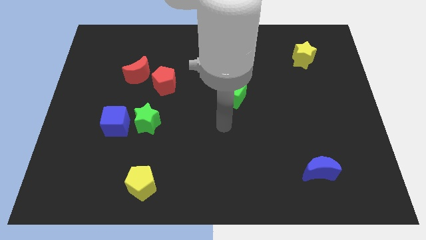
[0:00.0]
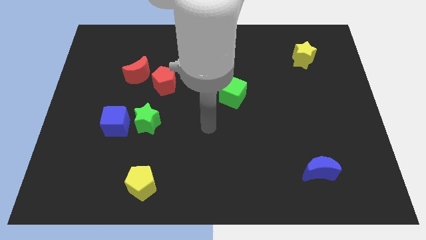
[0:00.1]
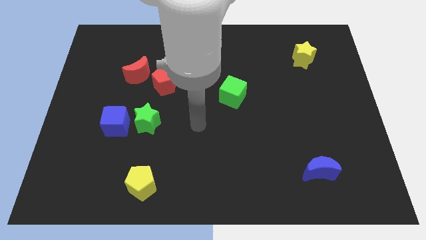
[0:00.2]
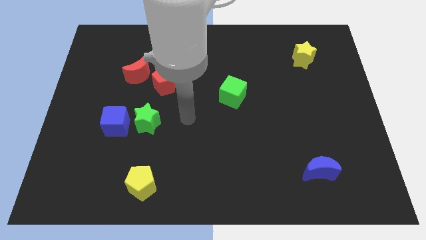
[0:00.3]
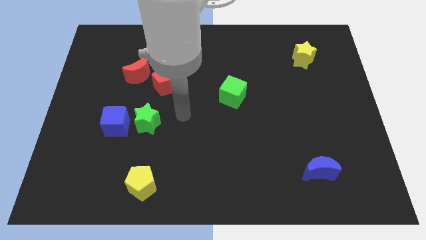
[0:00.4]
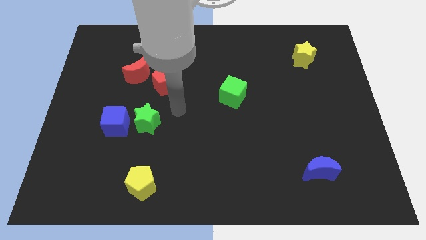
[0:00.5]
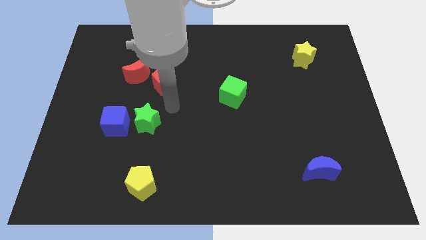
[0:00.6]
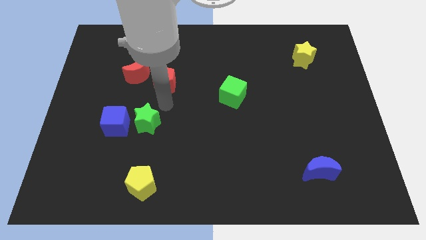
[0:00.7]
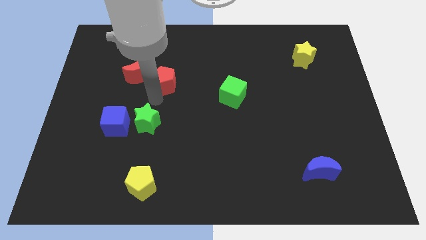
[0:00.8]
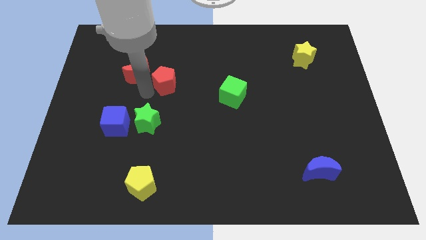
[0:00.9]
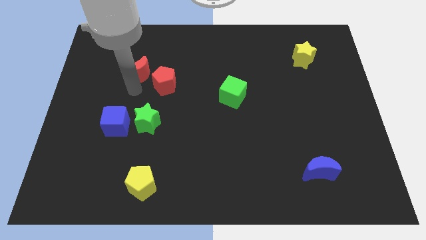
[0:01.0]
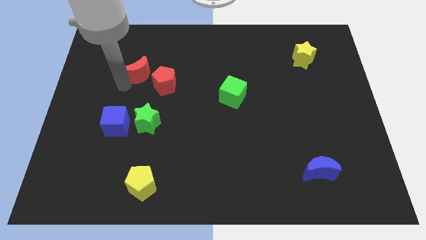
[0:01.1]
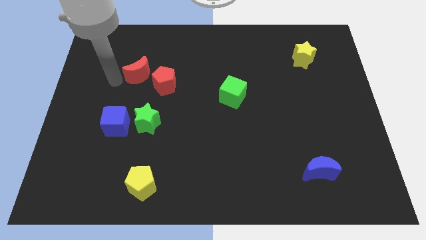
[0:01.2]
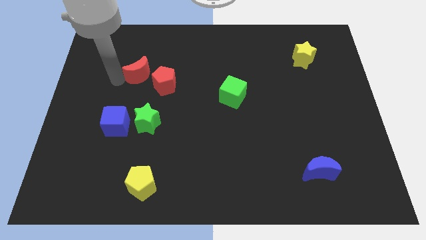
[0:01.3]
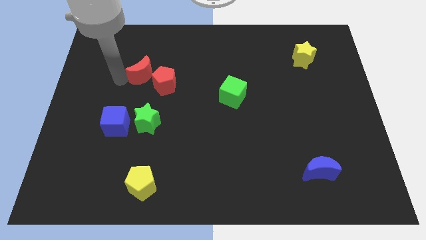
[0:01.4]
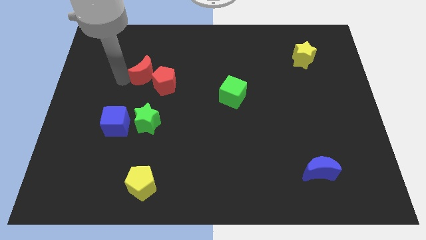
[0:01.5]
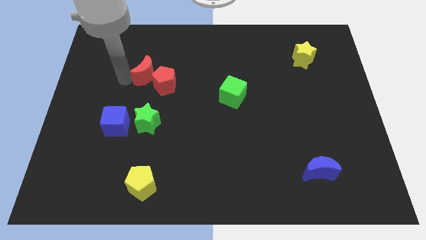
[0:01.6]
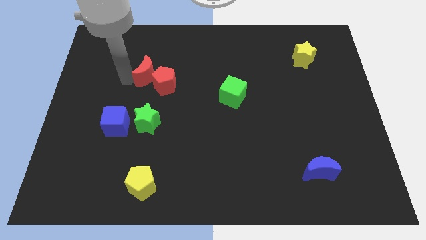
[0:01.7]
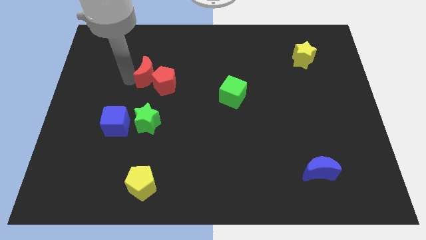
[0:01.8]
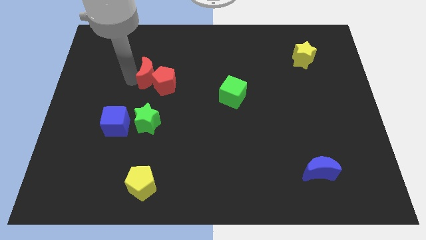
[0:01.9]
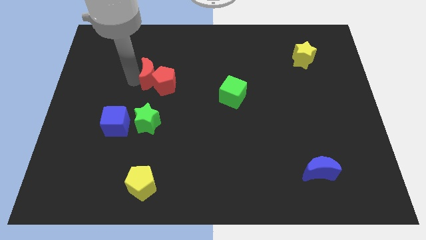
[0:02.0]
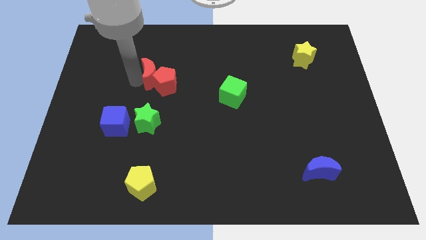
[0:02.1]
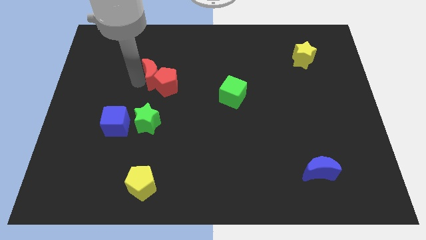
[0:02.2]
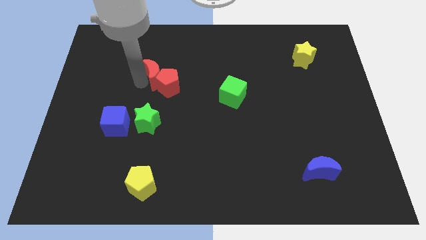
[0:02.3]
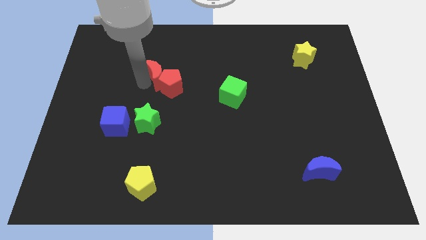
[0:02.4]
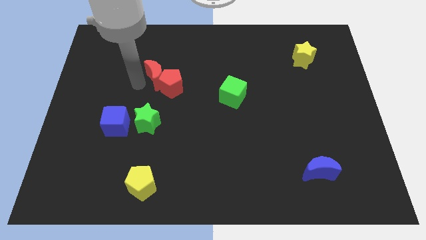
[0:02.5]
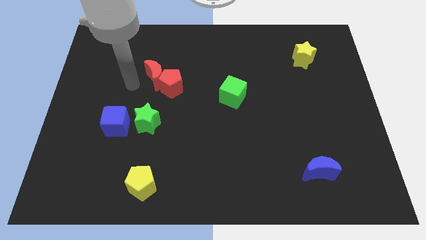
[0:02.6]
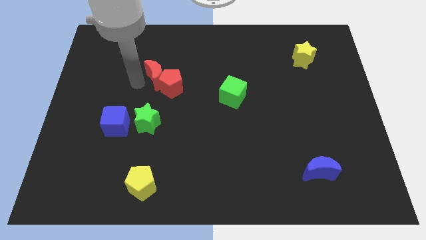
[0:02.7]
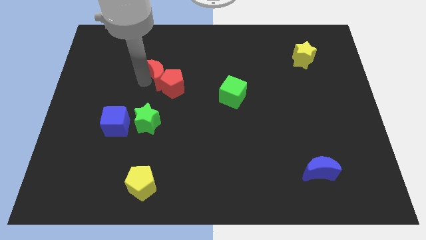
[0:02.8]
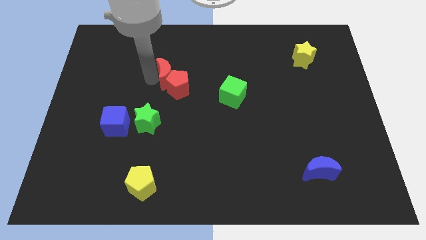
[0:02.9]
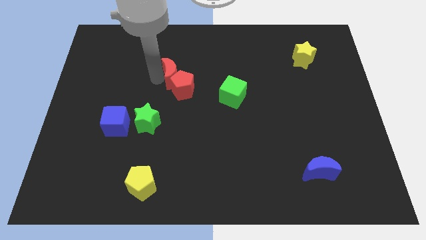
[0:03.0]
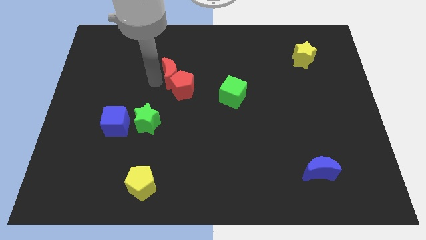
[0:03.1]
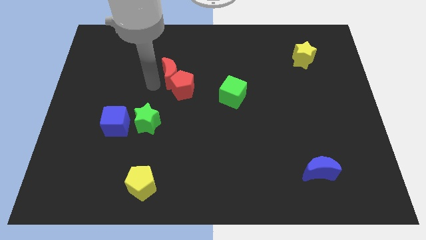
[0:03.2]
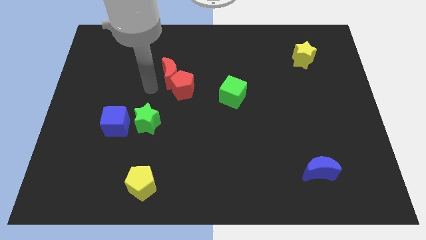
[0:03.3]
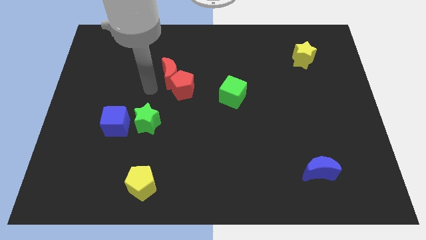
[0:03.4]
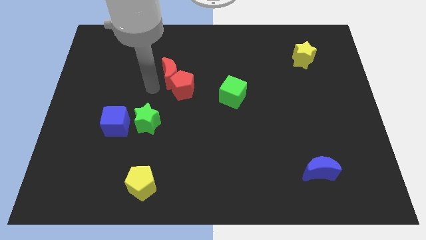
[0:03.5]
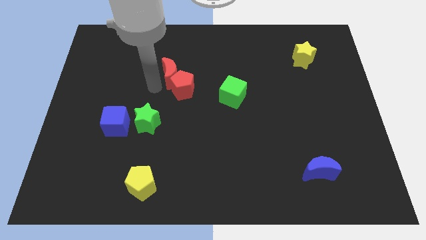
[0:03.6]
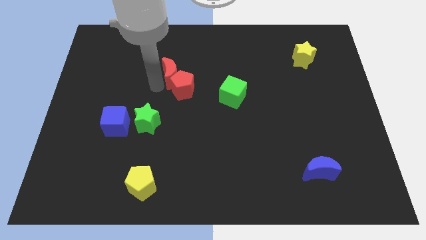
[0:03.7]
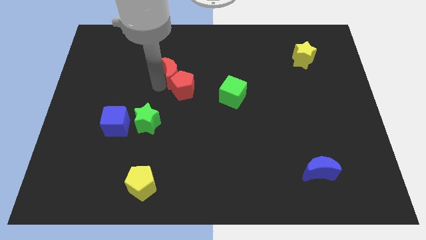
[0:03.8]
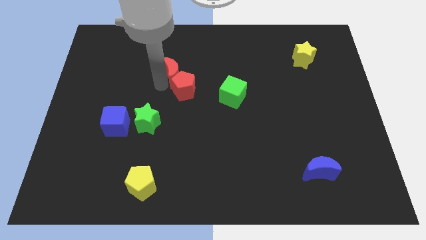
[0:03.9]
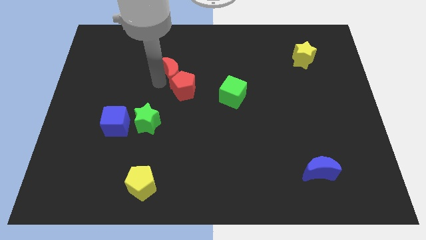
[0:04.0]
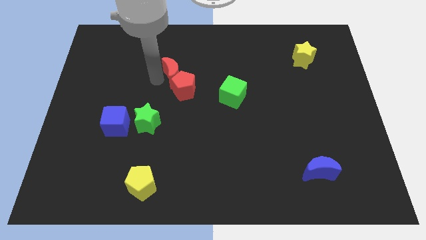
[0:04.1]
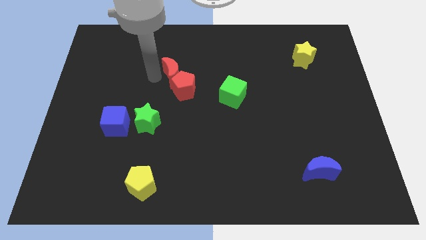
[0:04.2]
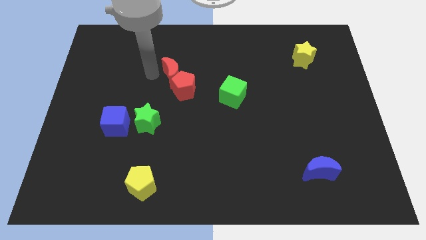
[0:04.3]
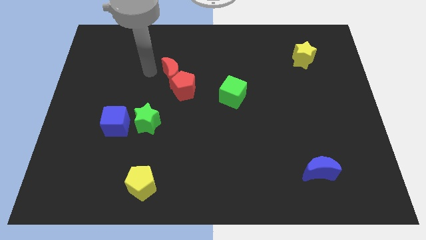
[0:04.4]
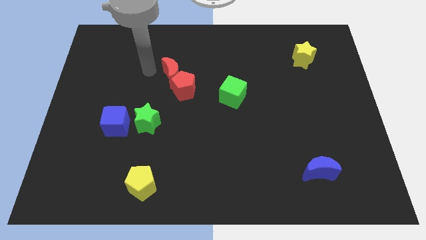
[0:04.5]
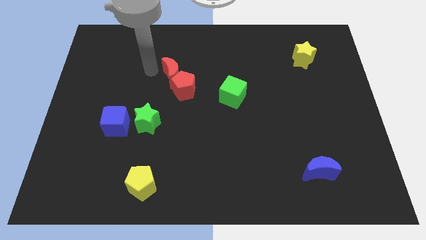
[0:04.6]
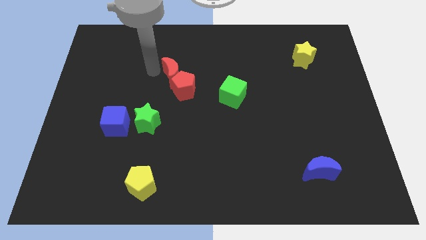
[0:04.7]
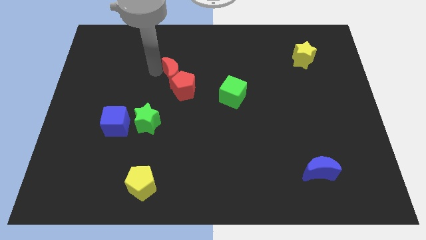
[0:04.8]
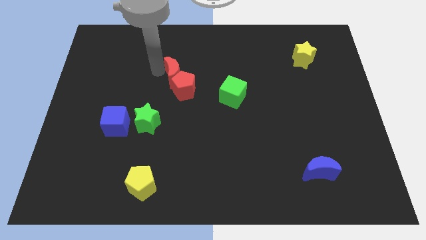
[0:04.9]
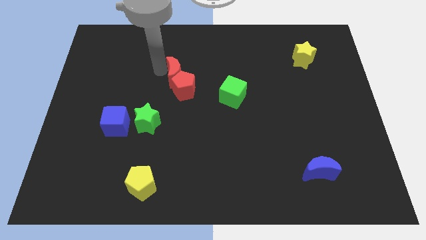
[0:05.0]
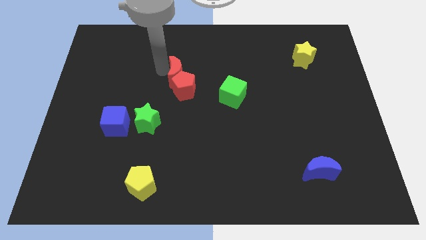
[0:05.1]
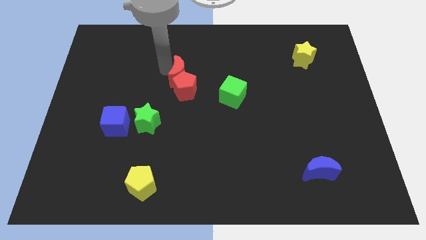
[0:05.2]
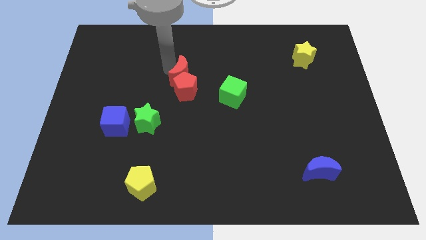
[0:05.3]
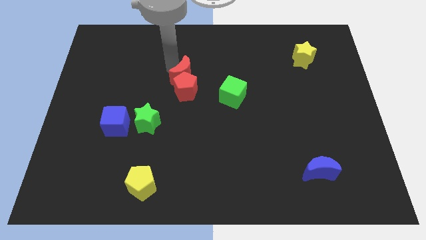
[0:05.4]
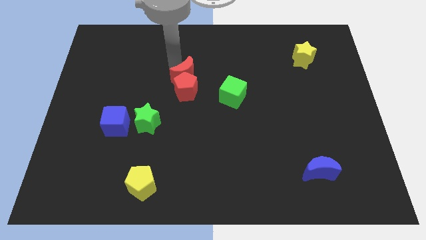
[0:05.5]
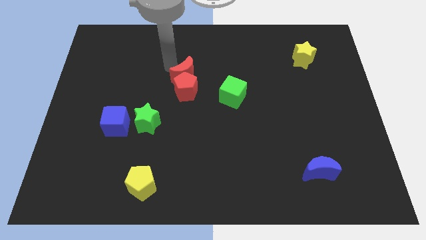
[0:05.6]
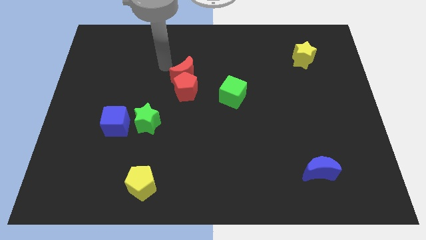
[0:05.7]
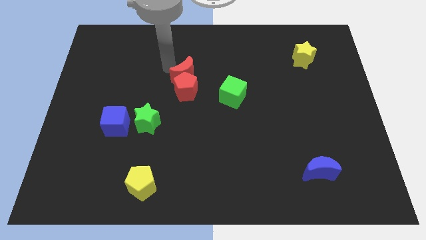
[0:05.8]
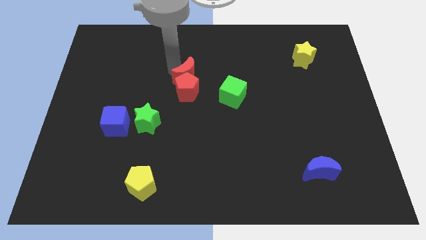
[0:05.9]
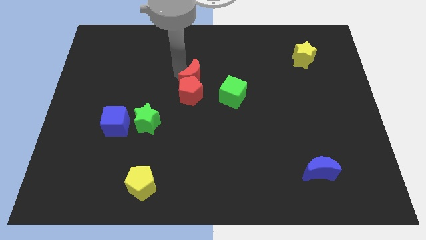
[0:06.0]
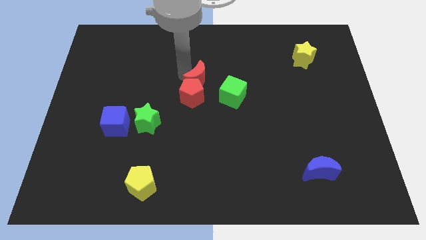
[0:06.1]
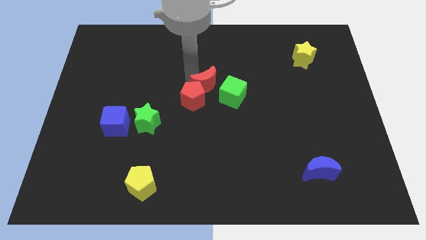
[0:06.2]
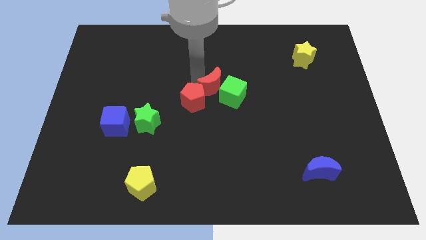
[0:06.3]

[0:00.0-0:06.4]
slide the red moon close to the green cube
